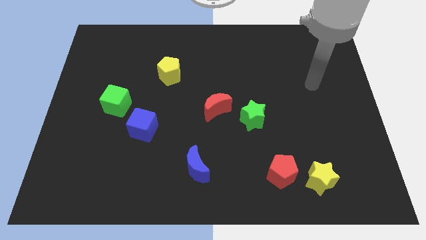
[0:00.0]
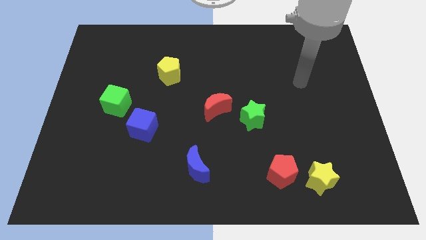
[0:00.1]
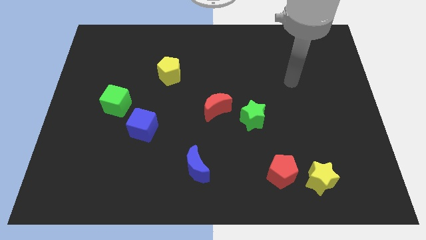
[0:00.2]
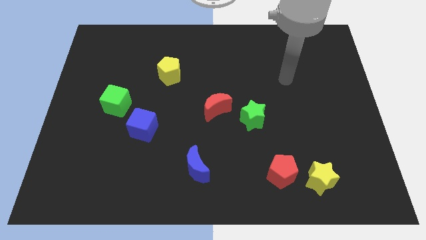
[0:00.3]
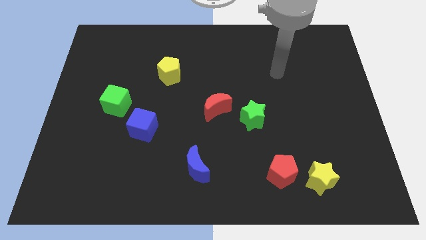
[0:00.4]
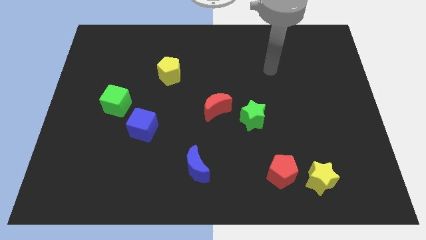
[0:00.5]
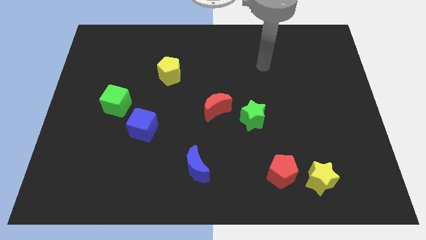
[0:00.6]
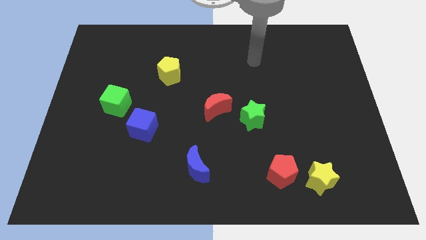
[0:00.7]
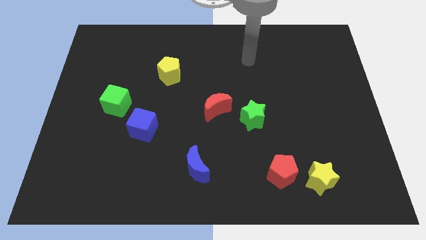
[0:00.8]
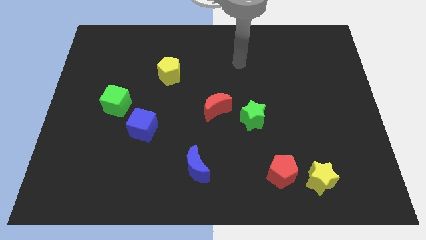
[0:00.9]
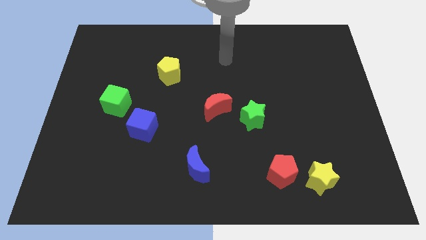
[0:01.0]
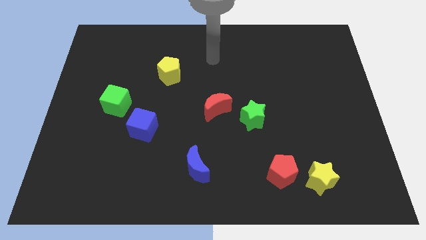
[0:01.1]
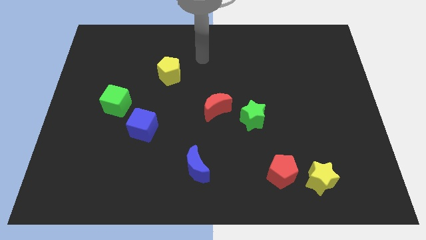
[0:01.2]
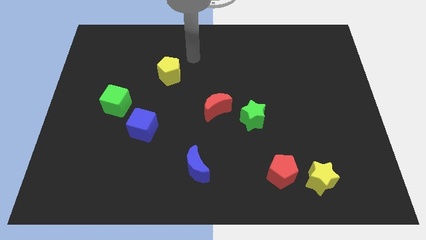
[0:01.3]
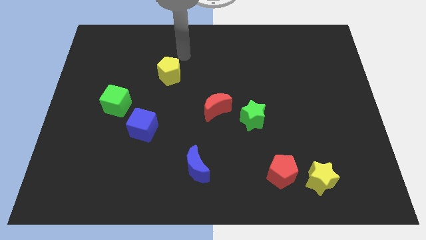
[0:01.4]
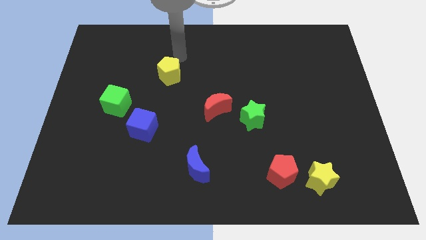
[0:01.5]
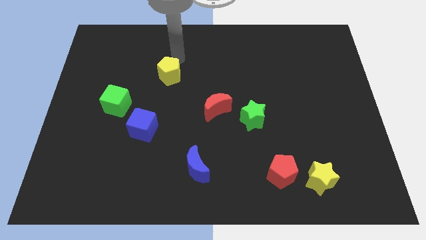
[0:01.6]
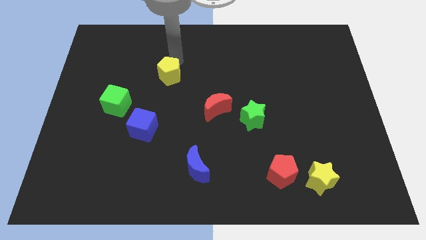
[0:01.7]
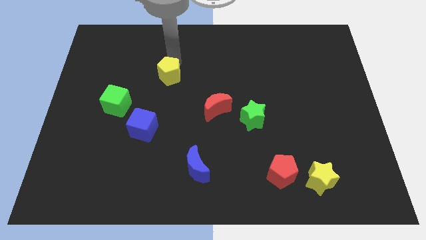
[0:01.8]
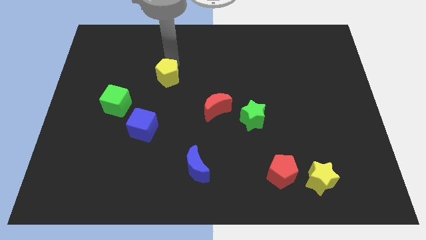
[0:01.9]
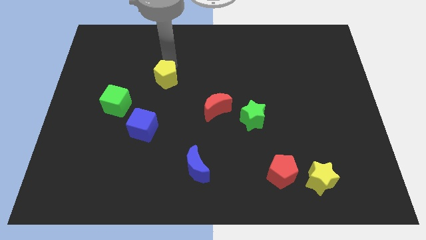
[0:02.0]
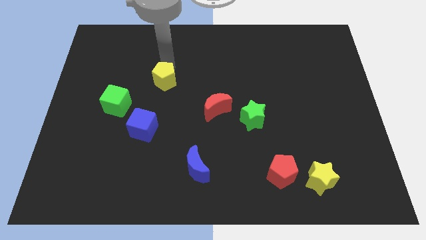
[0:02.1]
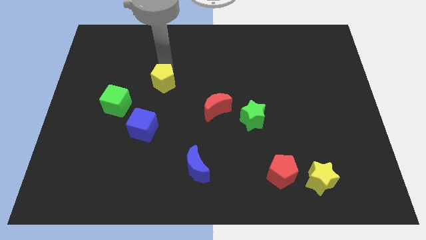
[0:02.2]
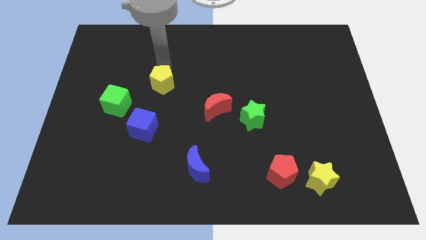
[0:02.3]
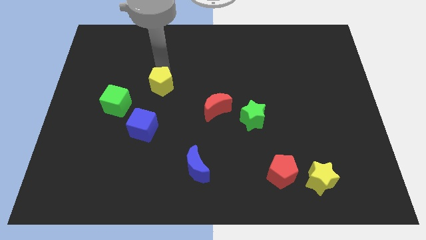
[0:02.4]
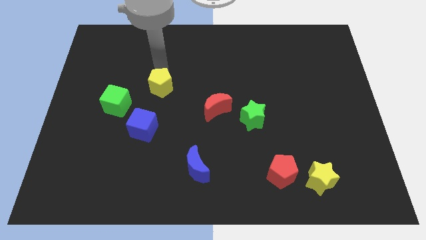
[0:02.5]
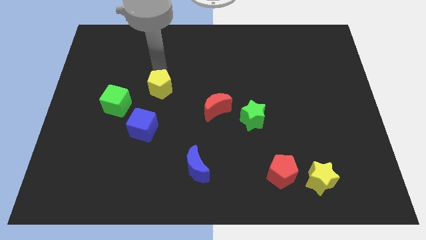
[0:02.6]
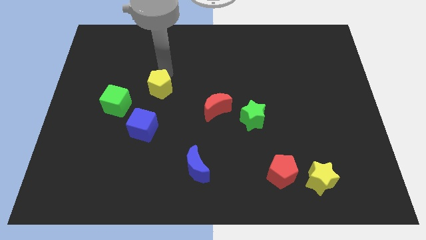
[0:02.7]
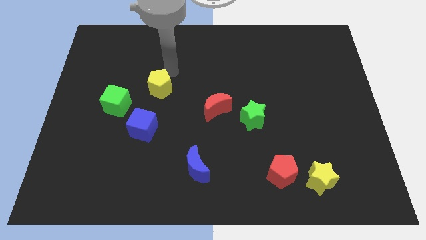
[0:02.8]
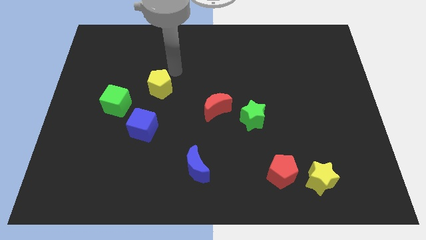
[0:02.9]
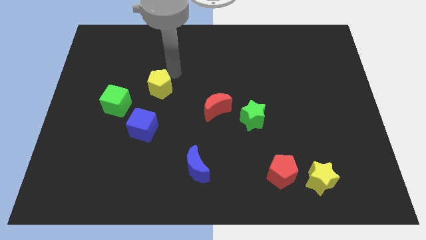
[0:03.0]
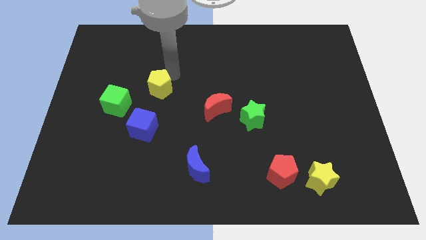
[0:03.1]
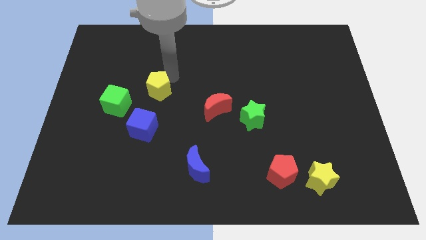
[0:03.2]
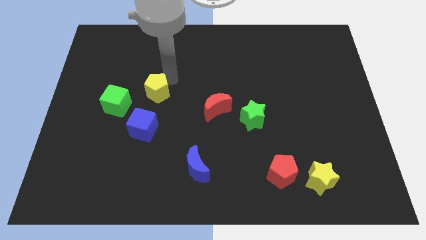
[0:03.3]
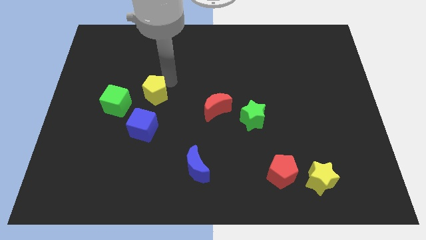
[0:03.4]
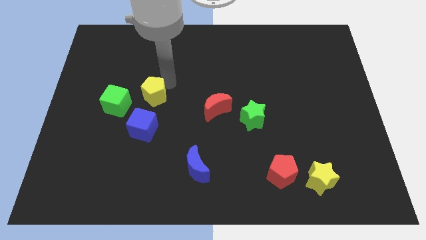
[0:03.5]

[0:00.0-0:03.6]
slide the yellow pentagon downwards and left diagonally somewhat

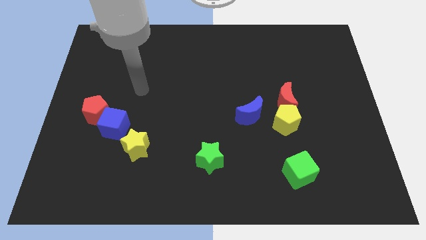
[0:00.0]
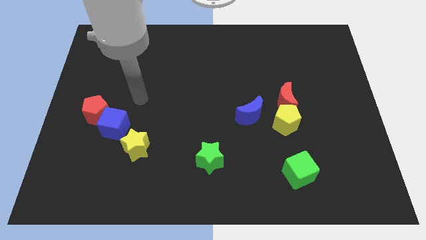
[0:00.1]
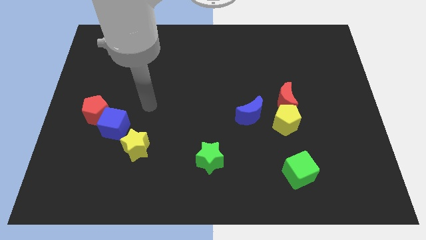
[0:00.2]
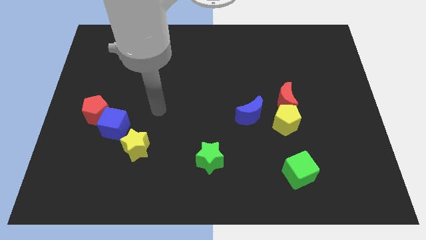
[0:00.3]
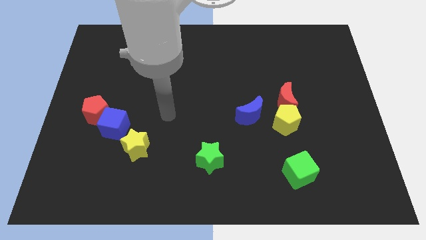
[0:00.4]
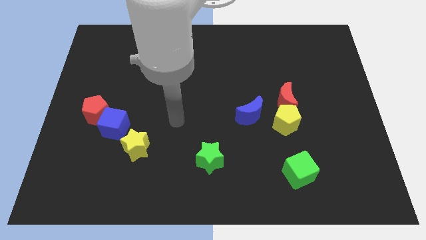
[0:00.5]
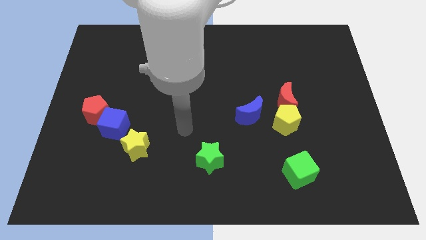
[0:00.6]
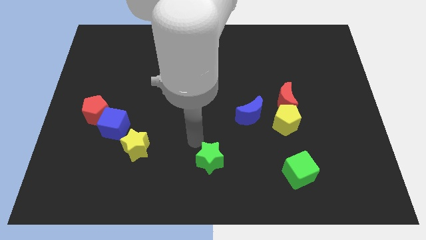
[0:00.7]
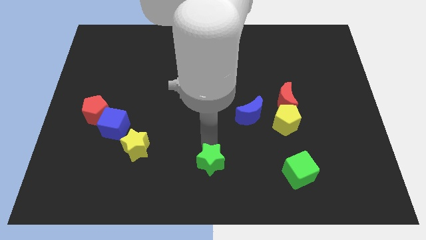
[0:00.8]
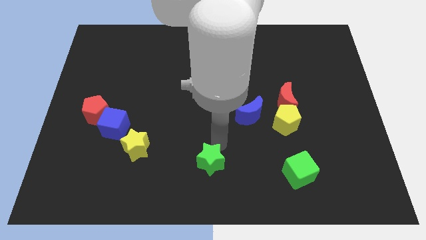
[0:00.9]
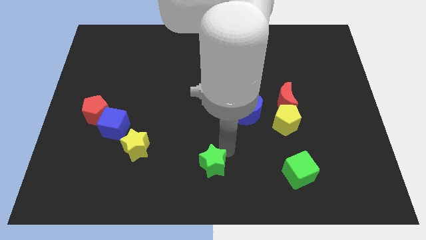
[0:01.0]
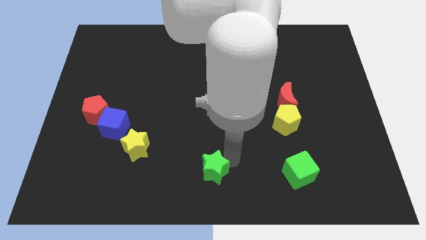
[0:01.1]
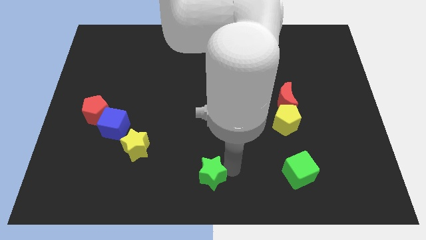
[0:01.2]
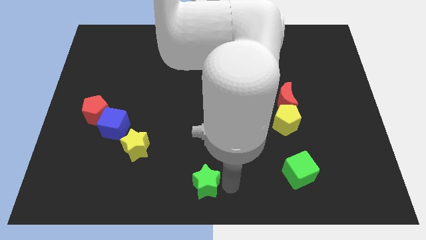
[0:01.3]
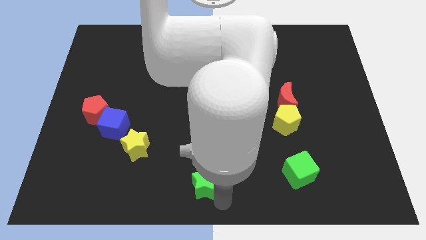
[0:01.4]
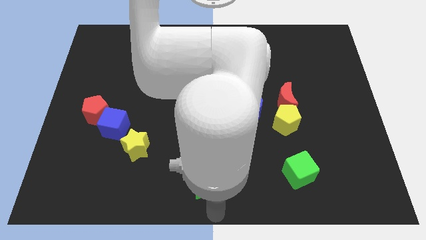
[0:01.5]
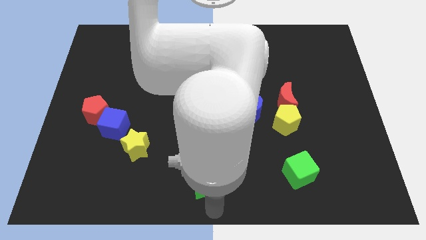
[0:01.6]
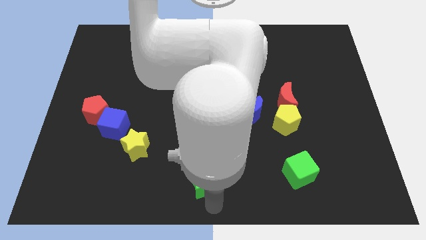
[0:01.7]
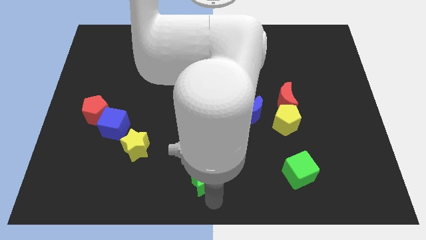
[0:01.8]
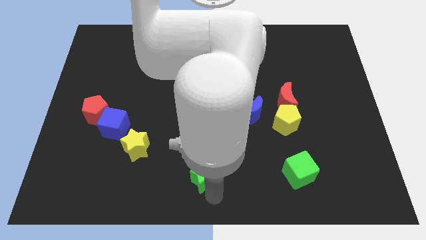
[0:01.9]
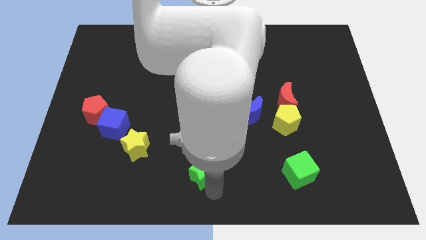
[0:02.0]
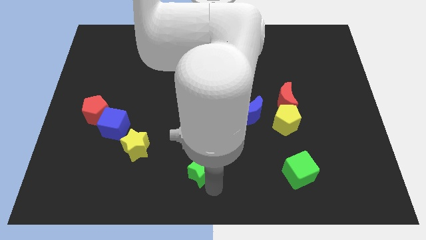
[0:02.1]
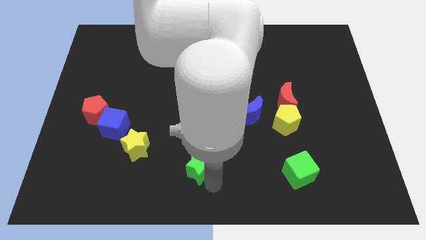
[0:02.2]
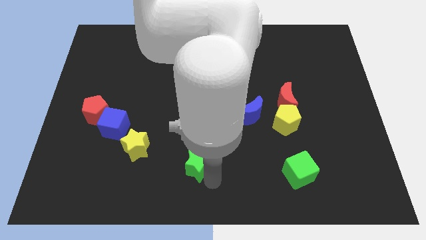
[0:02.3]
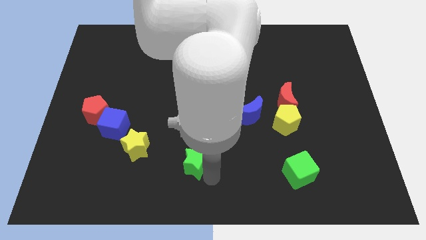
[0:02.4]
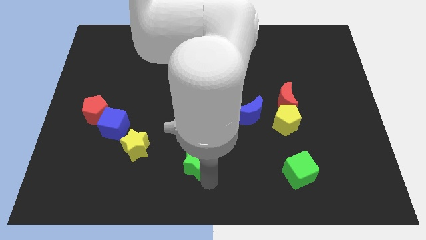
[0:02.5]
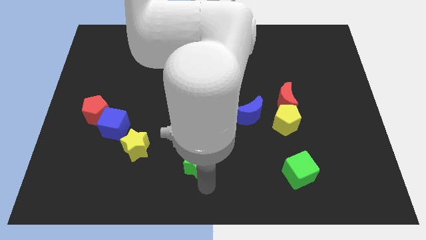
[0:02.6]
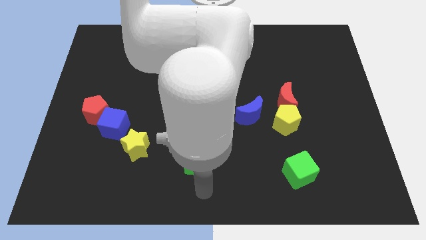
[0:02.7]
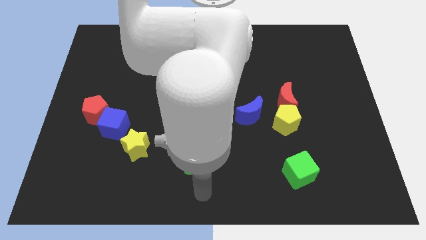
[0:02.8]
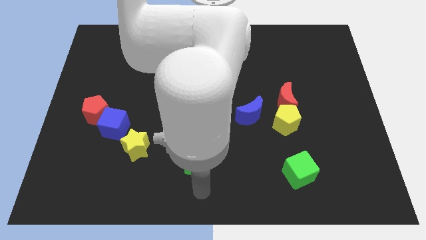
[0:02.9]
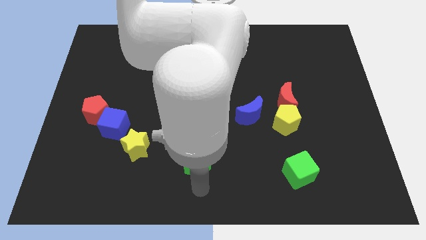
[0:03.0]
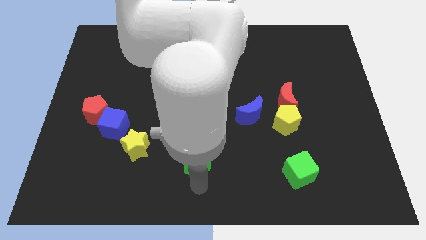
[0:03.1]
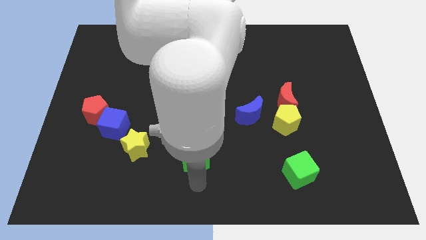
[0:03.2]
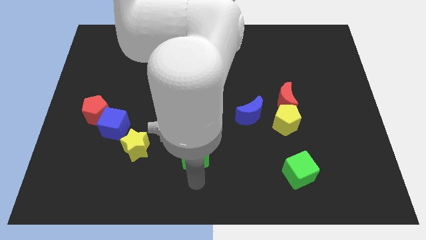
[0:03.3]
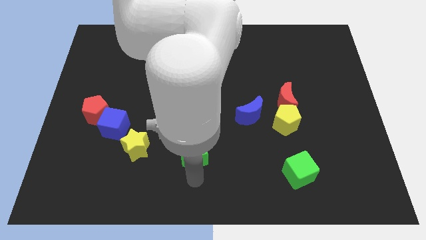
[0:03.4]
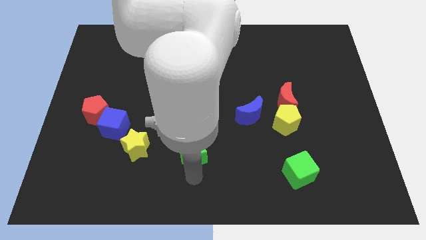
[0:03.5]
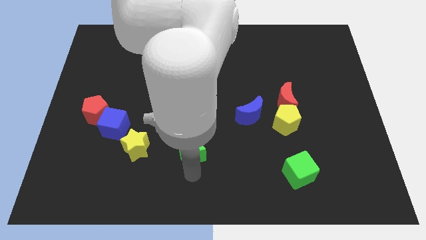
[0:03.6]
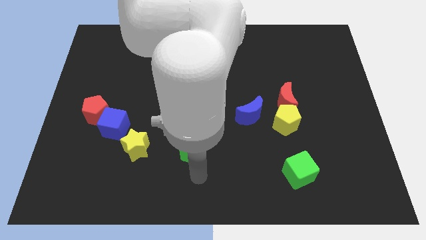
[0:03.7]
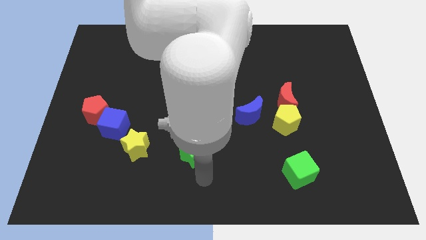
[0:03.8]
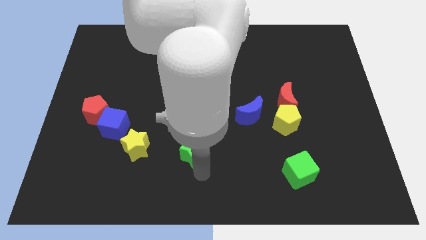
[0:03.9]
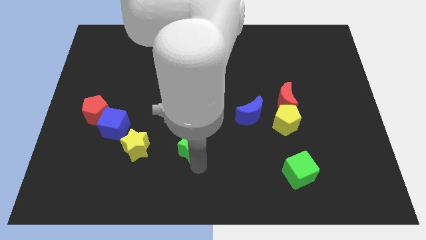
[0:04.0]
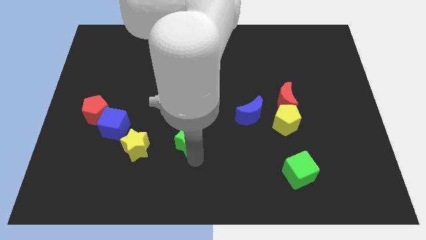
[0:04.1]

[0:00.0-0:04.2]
move the green star somewhat up and then to the left
